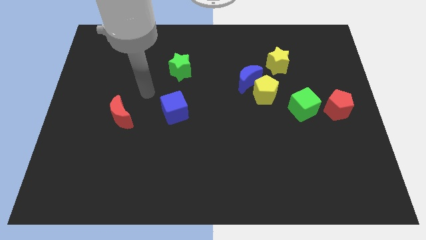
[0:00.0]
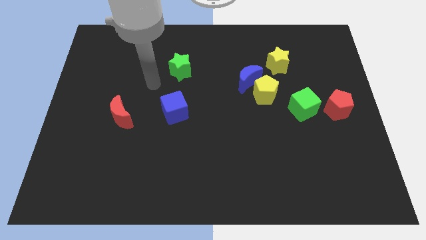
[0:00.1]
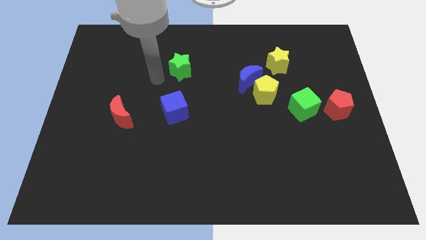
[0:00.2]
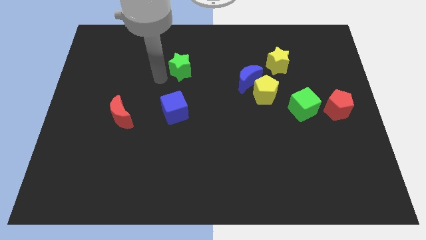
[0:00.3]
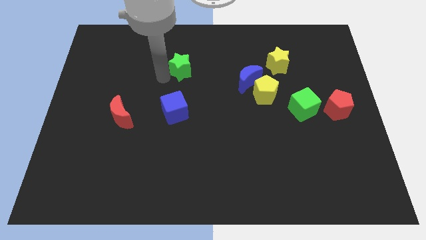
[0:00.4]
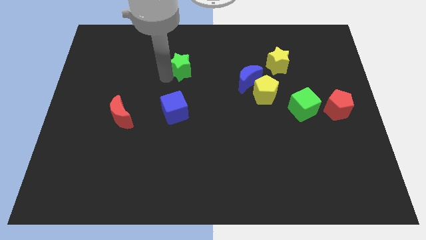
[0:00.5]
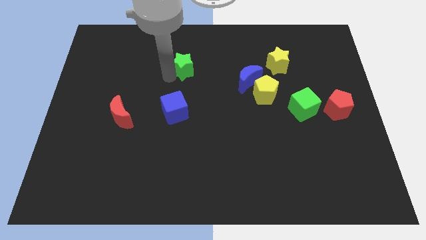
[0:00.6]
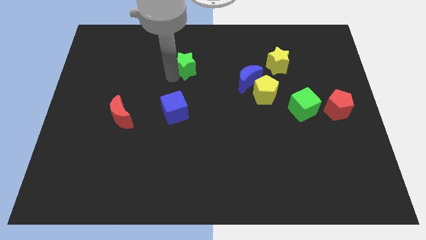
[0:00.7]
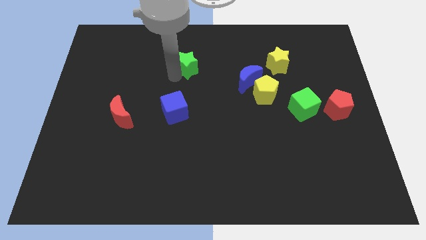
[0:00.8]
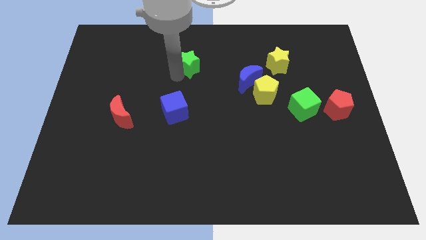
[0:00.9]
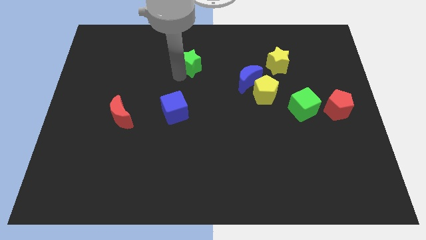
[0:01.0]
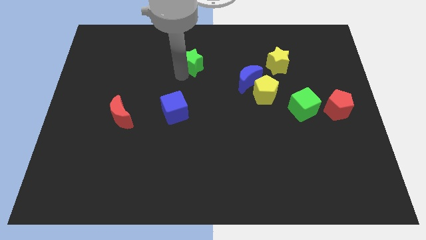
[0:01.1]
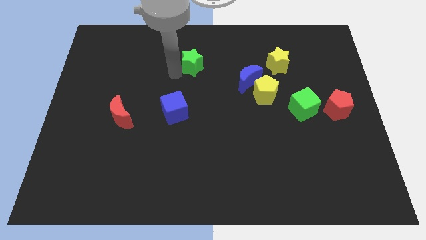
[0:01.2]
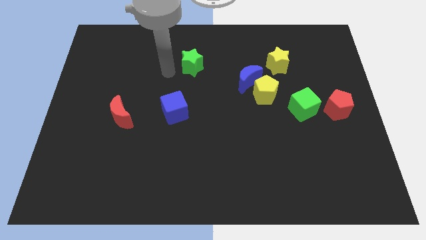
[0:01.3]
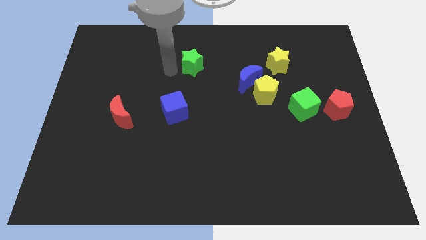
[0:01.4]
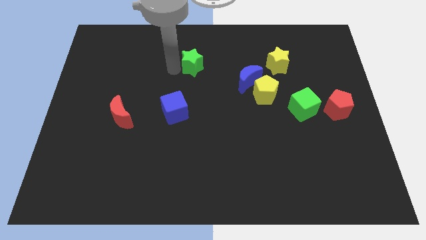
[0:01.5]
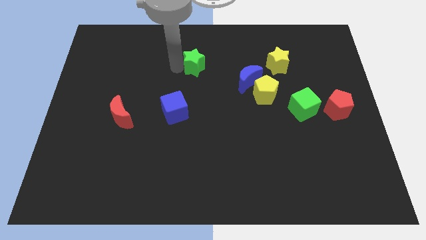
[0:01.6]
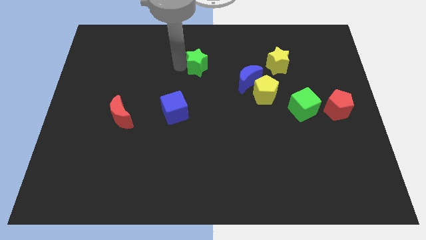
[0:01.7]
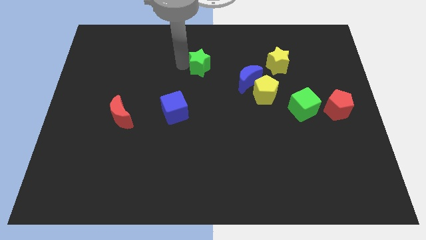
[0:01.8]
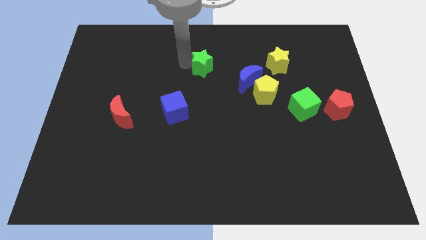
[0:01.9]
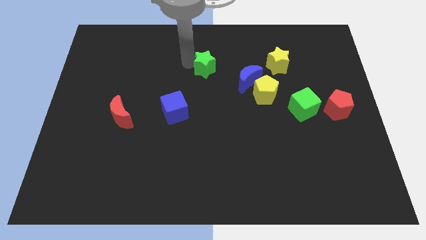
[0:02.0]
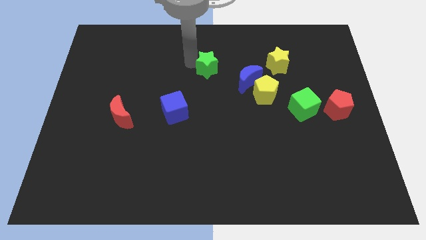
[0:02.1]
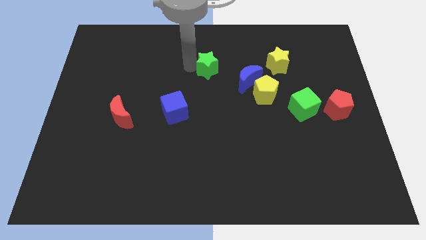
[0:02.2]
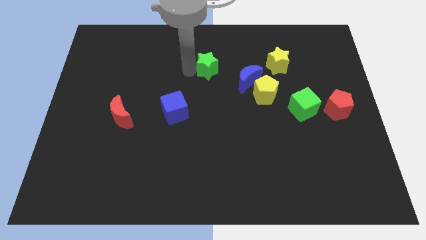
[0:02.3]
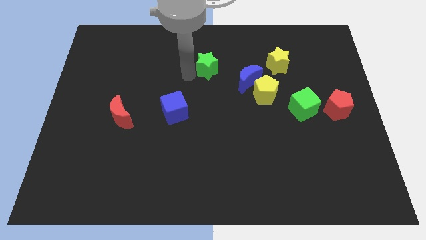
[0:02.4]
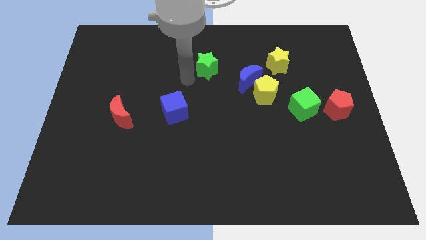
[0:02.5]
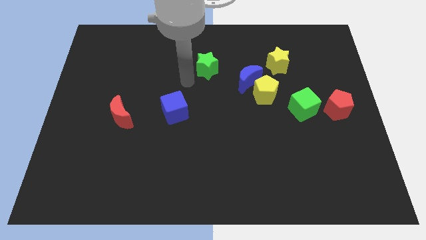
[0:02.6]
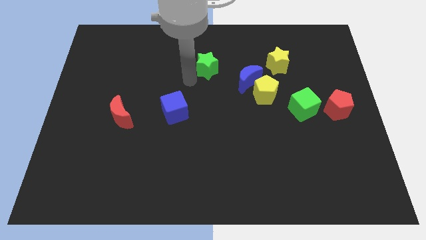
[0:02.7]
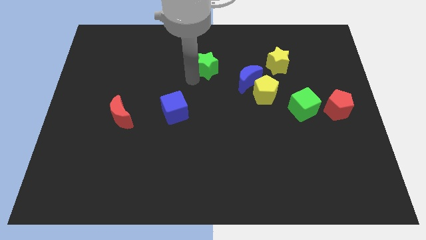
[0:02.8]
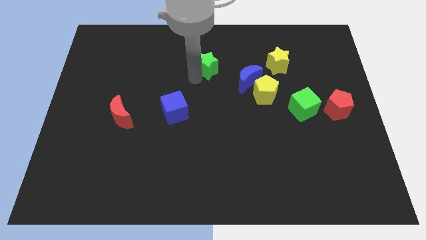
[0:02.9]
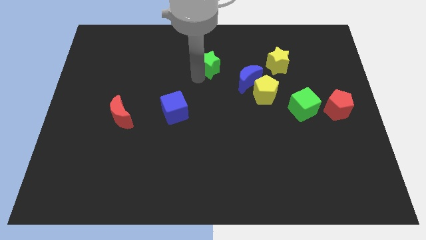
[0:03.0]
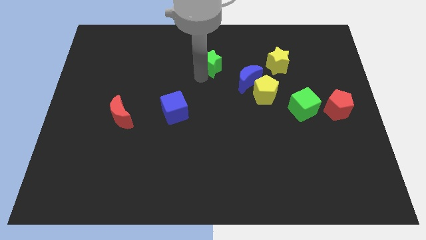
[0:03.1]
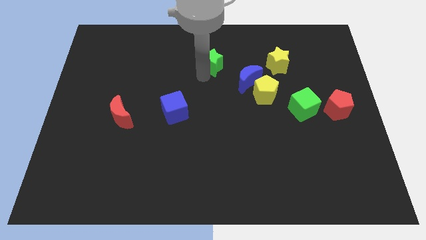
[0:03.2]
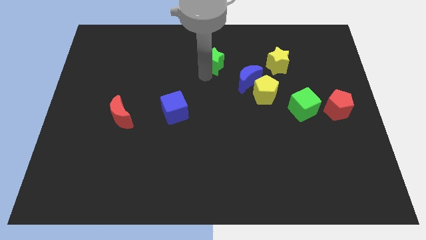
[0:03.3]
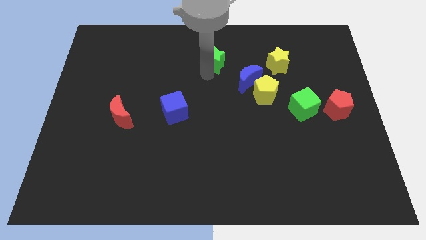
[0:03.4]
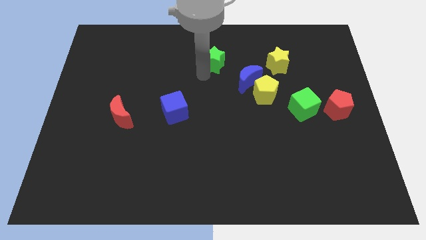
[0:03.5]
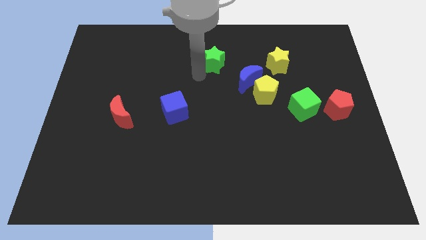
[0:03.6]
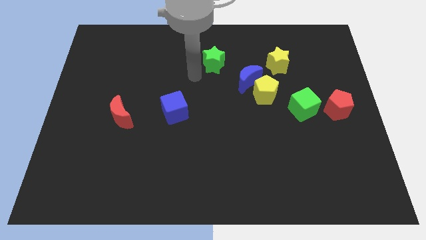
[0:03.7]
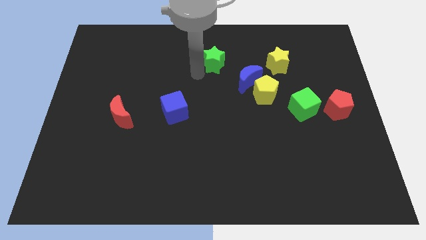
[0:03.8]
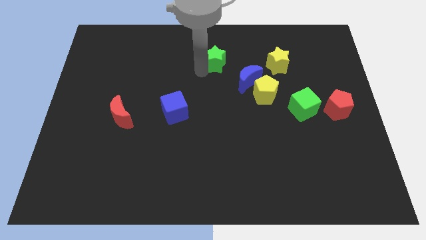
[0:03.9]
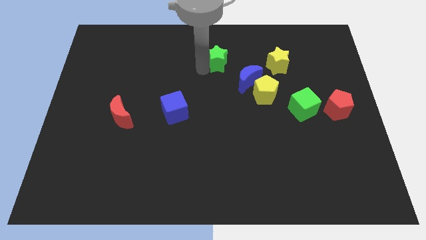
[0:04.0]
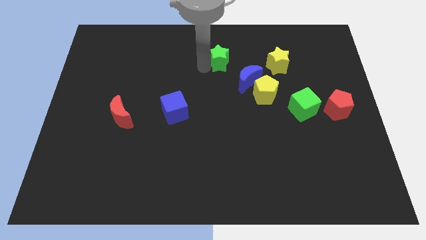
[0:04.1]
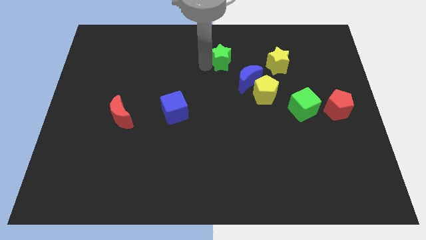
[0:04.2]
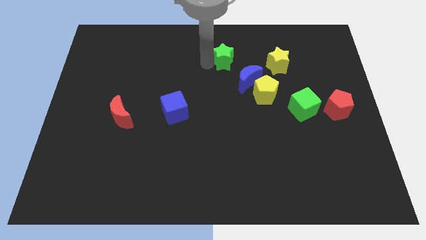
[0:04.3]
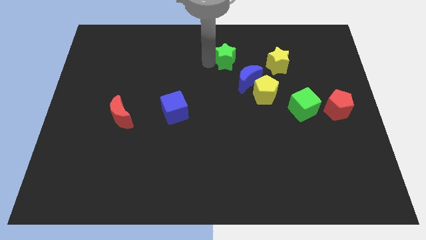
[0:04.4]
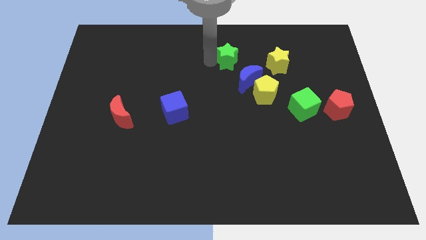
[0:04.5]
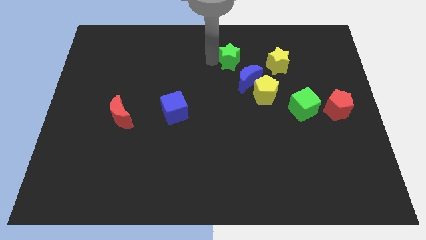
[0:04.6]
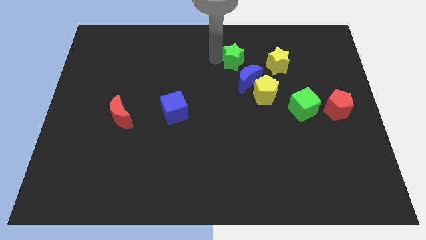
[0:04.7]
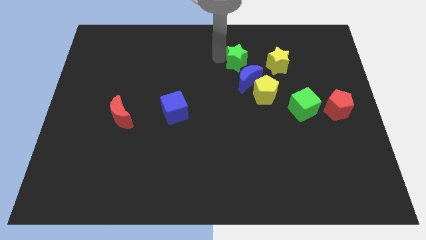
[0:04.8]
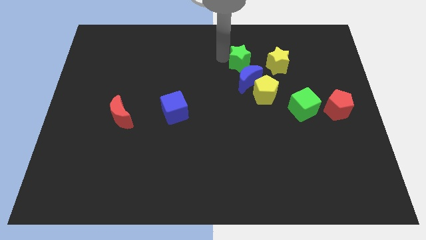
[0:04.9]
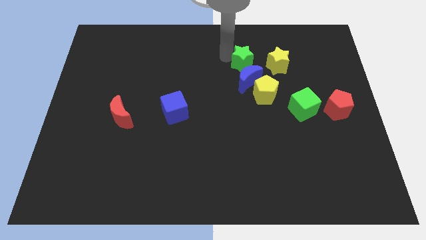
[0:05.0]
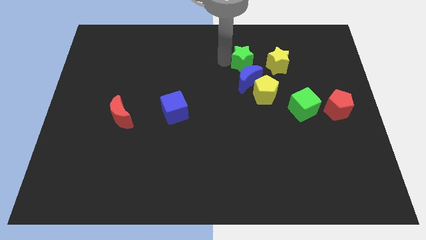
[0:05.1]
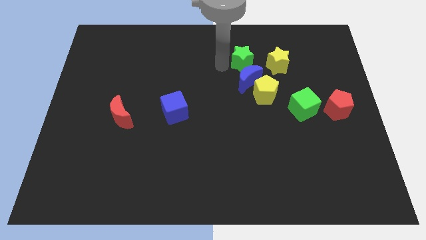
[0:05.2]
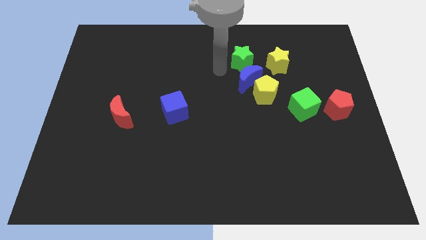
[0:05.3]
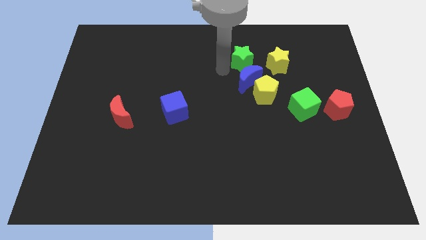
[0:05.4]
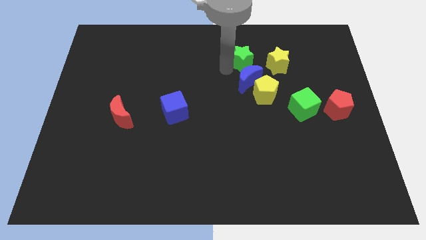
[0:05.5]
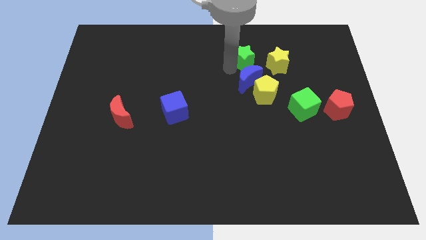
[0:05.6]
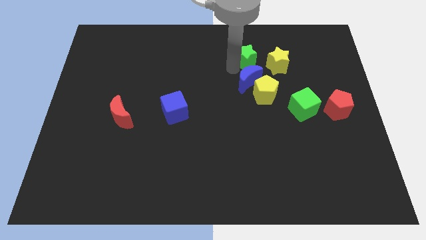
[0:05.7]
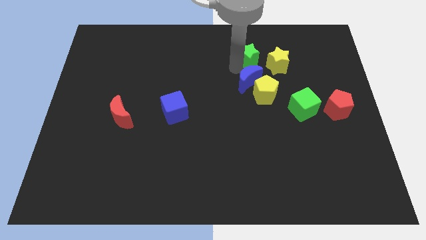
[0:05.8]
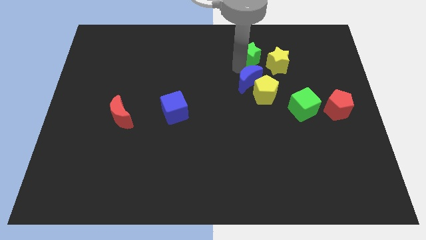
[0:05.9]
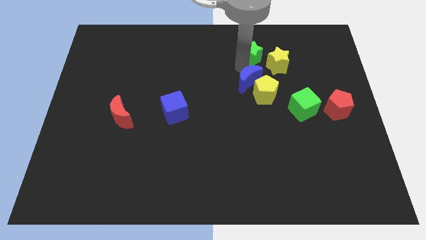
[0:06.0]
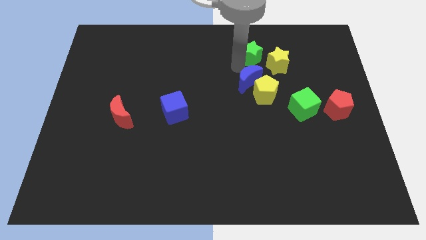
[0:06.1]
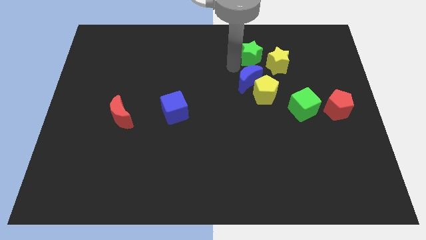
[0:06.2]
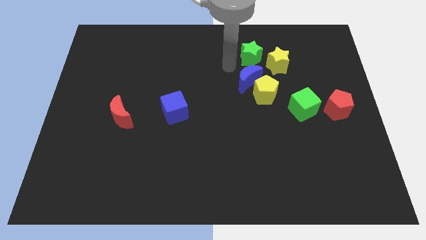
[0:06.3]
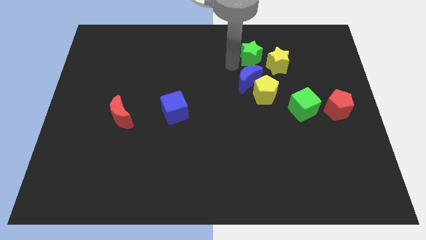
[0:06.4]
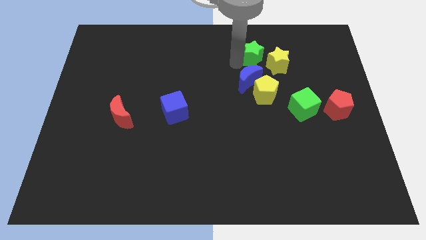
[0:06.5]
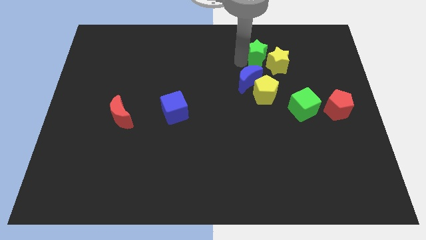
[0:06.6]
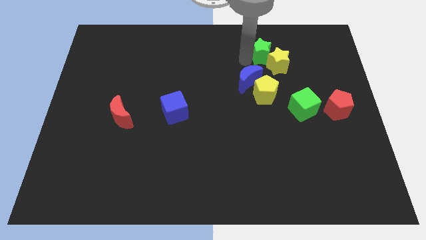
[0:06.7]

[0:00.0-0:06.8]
slide the green star to the right

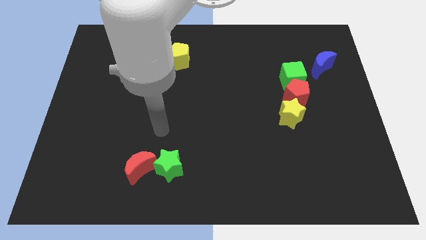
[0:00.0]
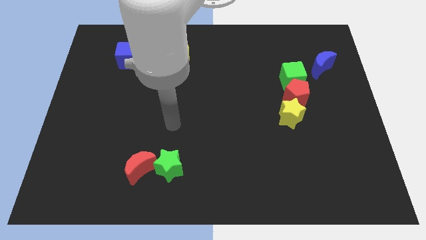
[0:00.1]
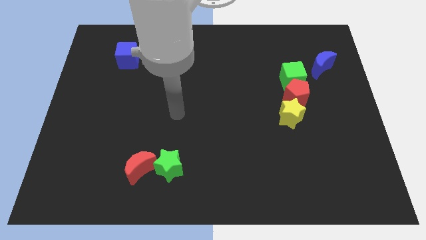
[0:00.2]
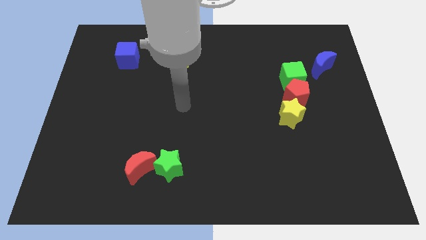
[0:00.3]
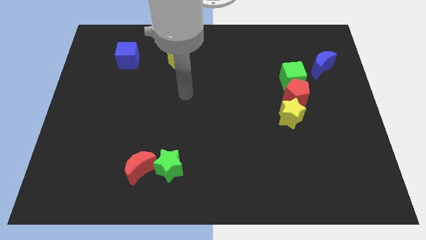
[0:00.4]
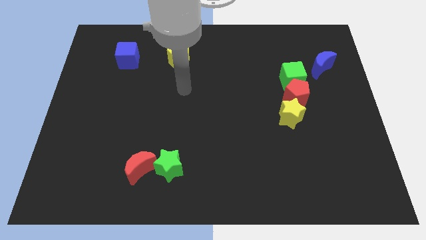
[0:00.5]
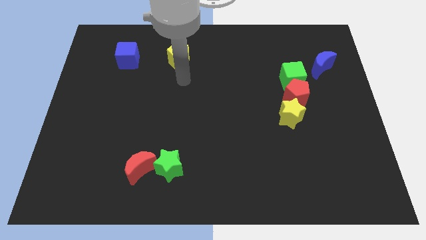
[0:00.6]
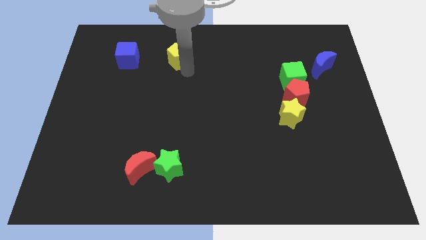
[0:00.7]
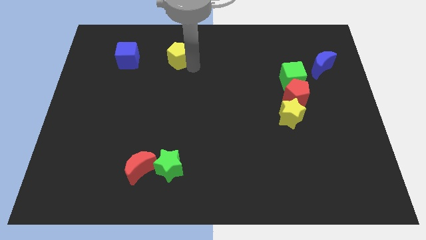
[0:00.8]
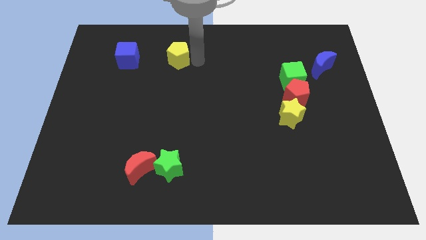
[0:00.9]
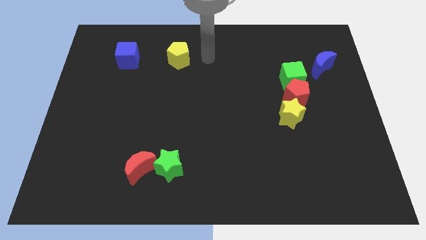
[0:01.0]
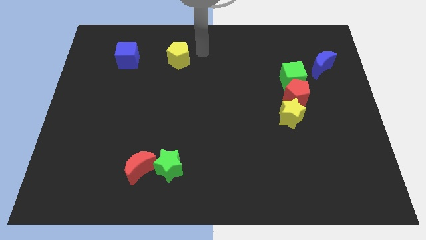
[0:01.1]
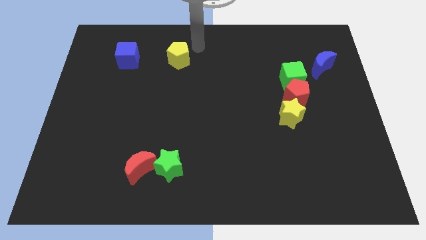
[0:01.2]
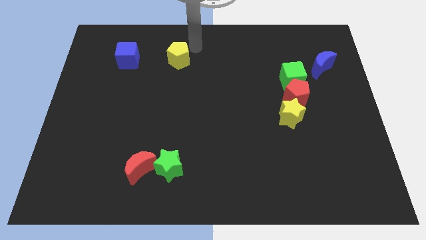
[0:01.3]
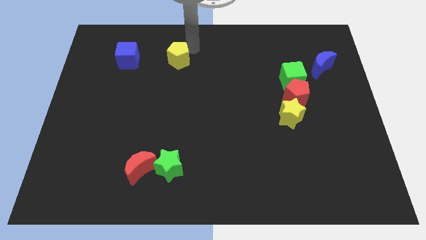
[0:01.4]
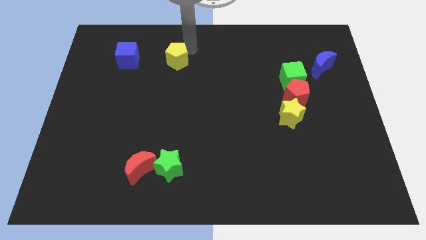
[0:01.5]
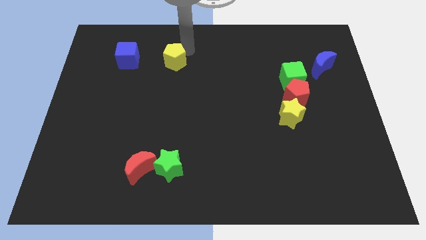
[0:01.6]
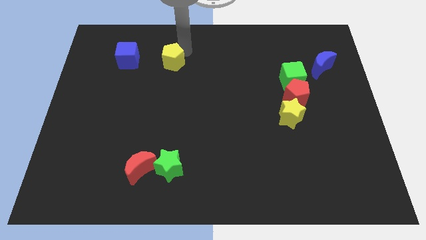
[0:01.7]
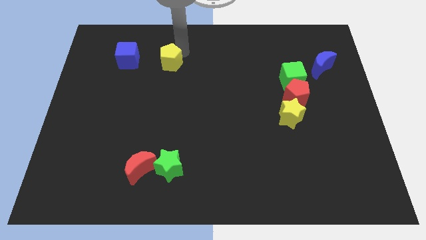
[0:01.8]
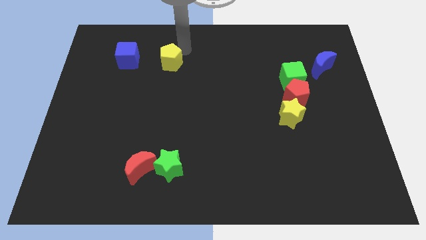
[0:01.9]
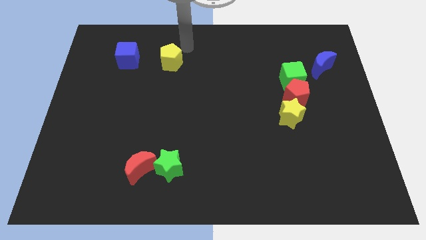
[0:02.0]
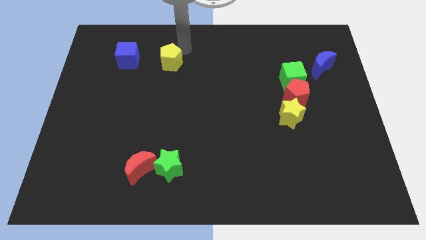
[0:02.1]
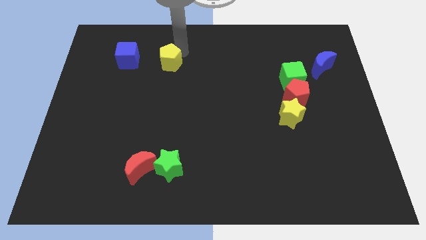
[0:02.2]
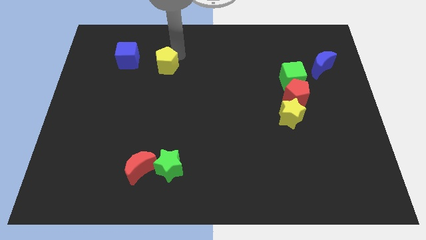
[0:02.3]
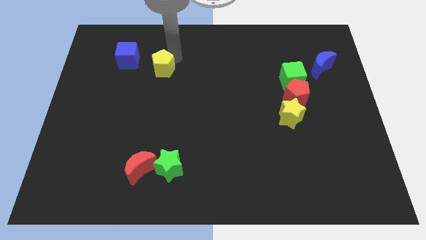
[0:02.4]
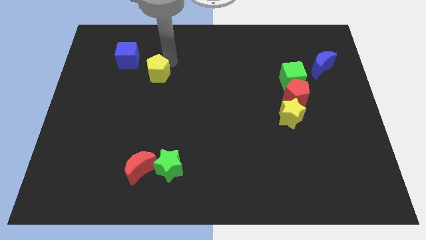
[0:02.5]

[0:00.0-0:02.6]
move the yellow pentagon a little downwards and left
